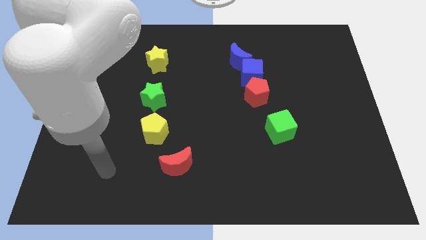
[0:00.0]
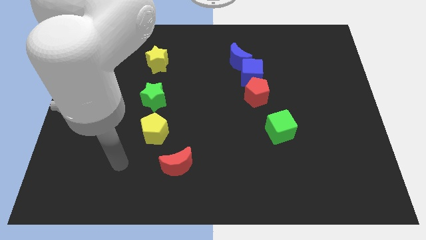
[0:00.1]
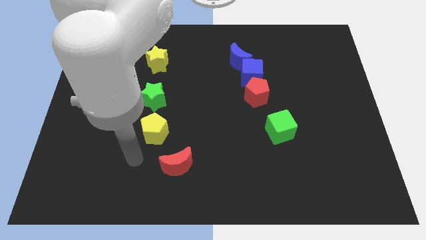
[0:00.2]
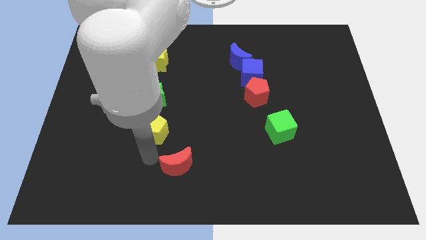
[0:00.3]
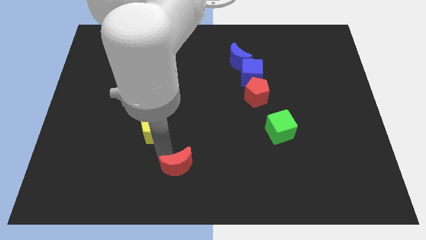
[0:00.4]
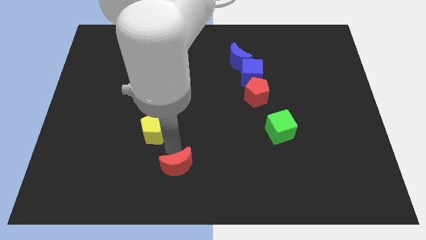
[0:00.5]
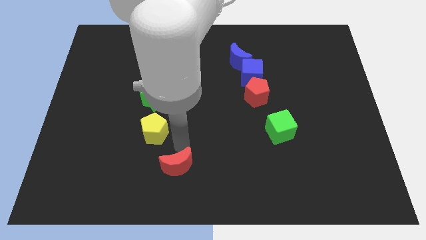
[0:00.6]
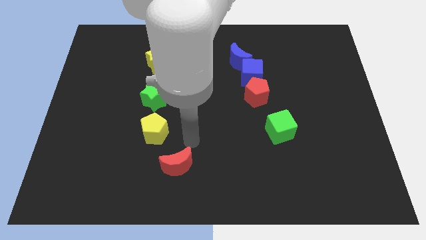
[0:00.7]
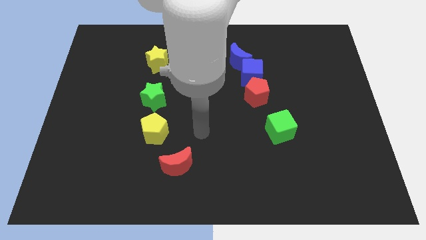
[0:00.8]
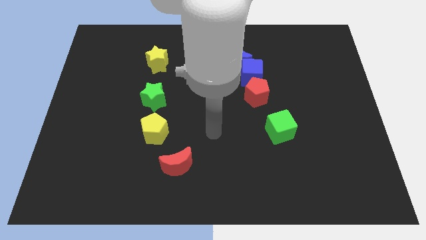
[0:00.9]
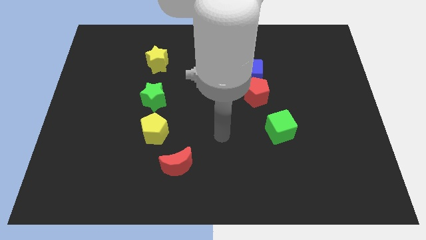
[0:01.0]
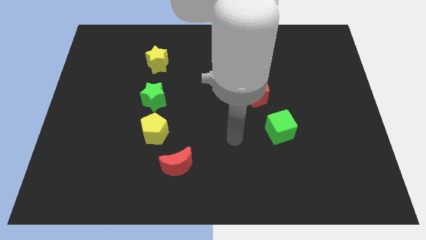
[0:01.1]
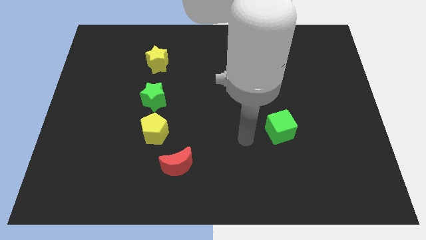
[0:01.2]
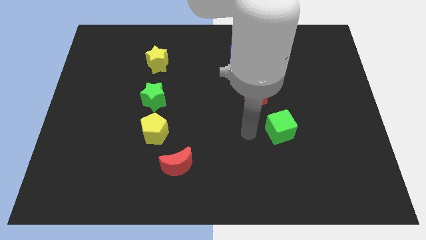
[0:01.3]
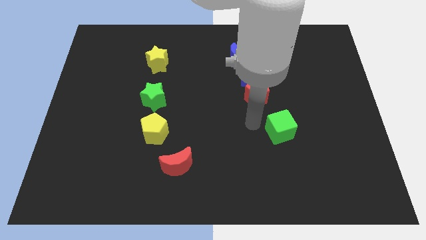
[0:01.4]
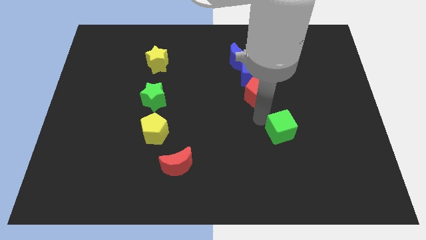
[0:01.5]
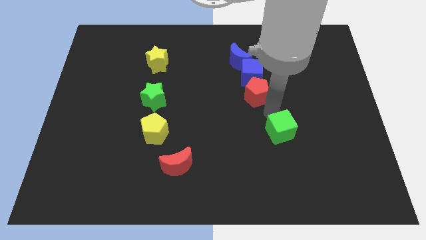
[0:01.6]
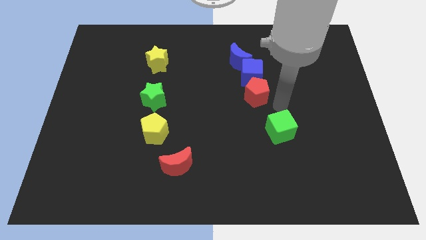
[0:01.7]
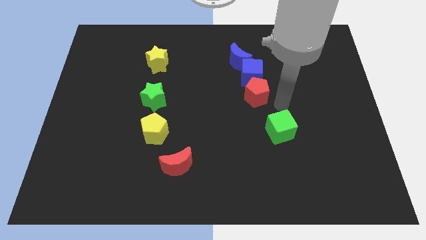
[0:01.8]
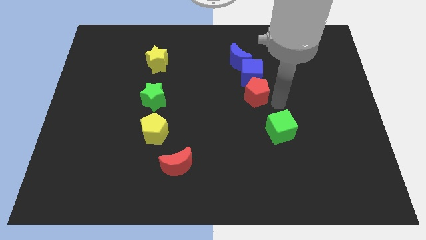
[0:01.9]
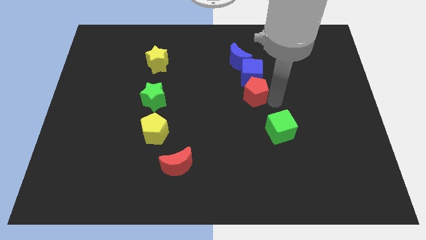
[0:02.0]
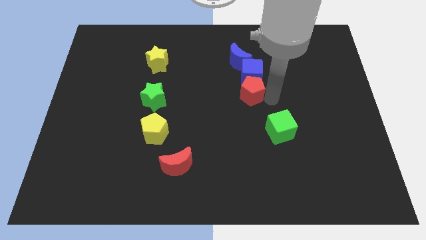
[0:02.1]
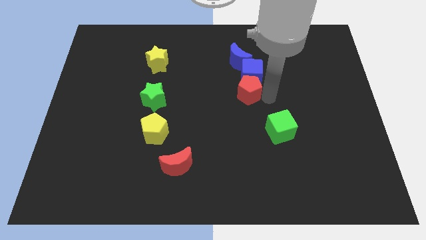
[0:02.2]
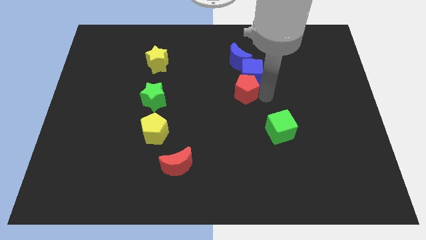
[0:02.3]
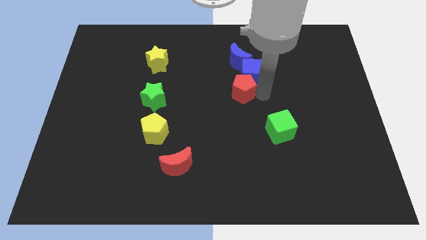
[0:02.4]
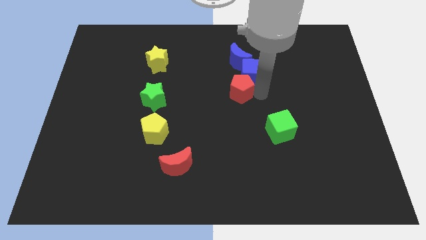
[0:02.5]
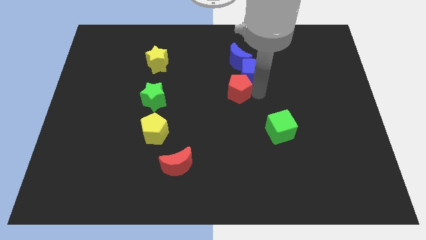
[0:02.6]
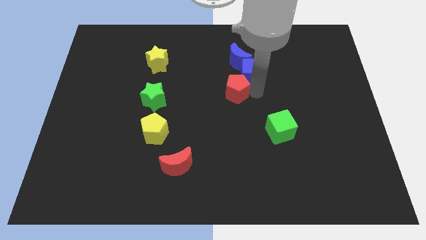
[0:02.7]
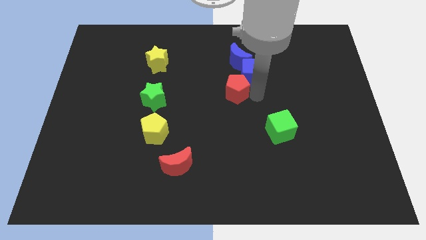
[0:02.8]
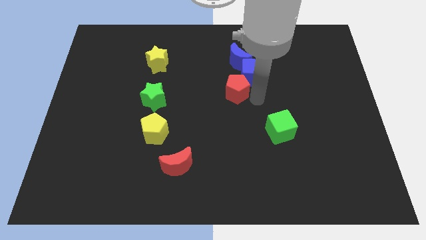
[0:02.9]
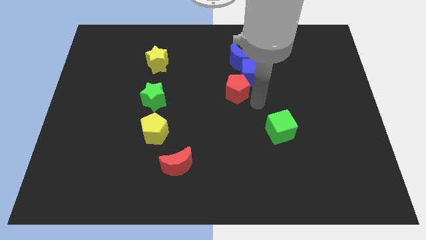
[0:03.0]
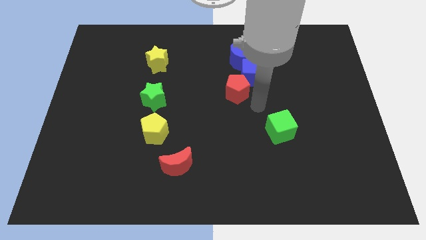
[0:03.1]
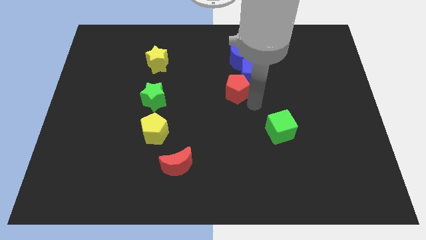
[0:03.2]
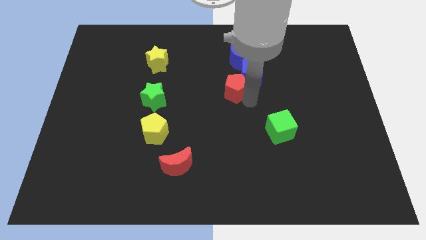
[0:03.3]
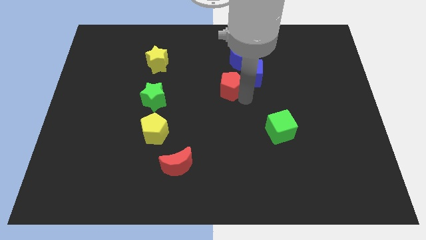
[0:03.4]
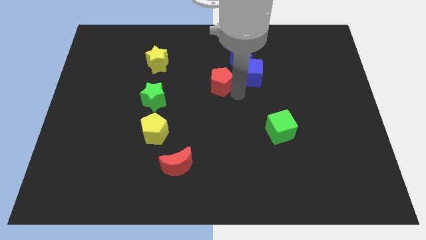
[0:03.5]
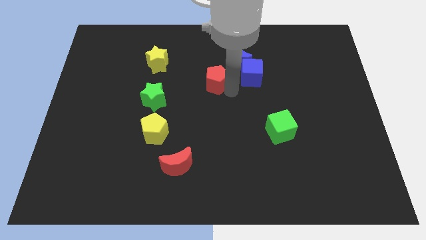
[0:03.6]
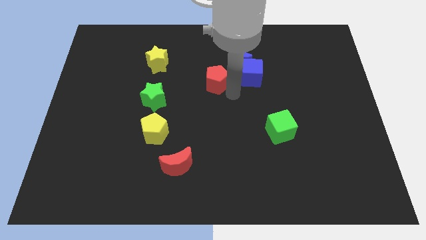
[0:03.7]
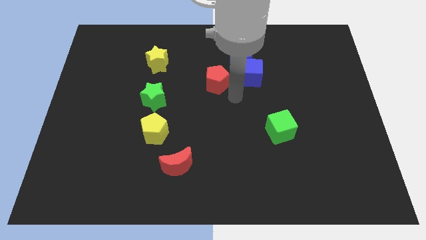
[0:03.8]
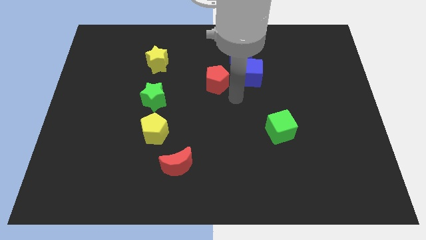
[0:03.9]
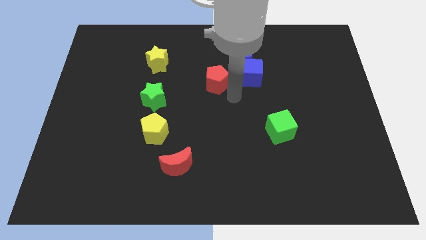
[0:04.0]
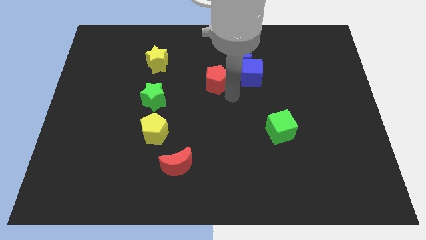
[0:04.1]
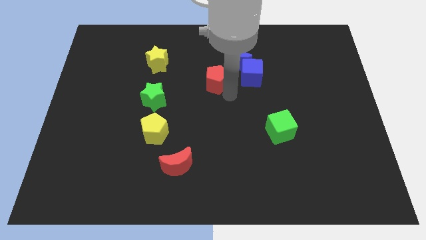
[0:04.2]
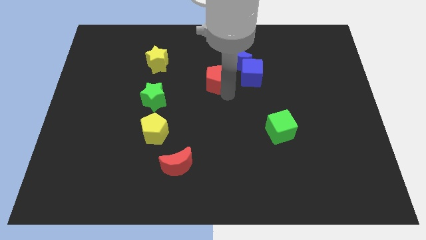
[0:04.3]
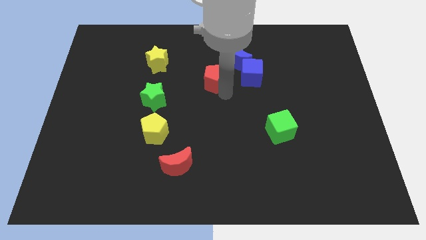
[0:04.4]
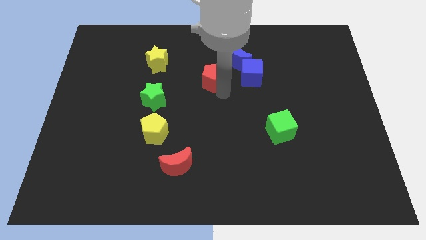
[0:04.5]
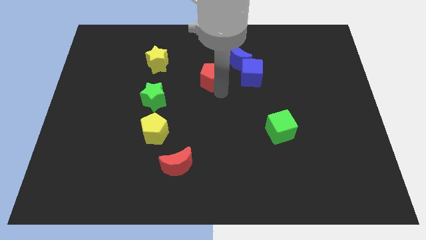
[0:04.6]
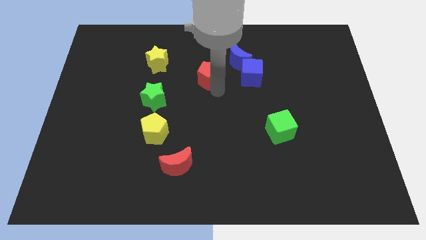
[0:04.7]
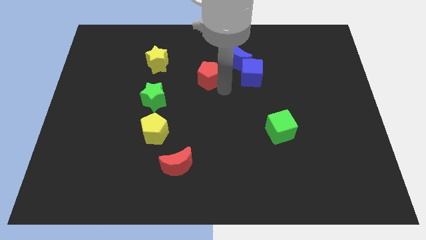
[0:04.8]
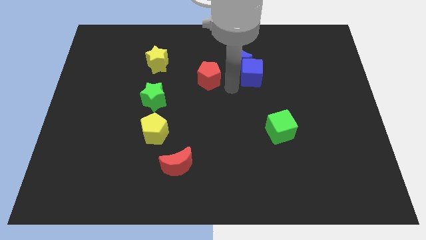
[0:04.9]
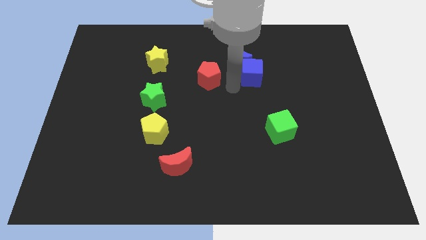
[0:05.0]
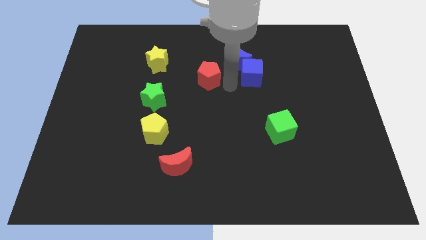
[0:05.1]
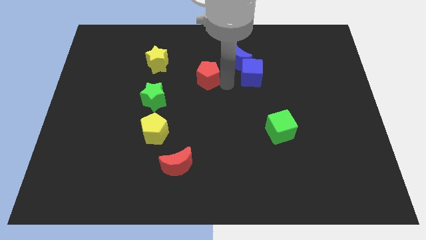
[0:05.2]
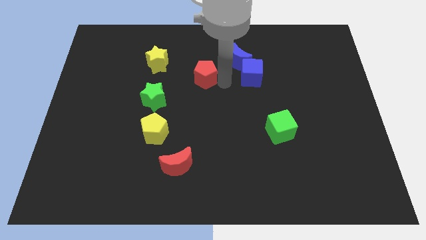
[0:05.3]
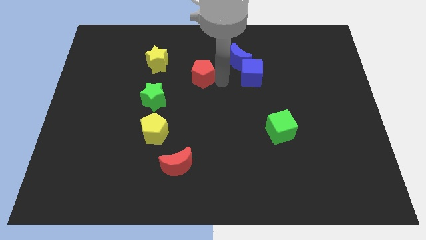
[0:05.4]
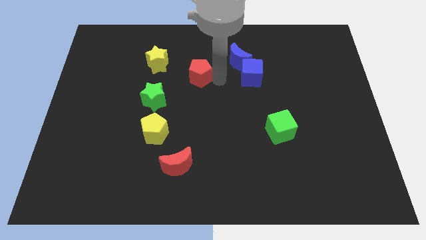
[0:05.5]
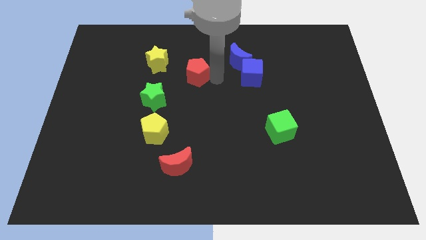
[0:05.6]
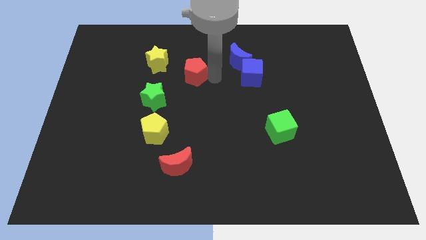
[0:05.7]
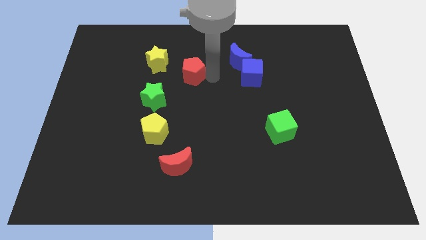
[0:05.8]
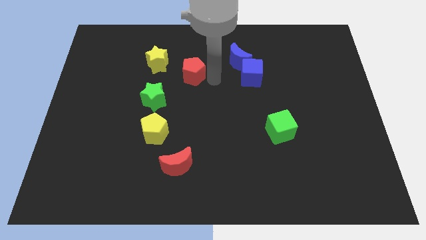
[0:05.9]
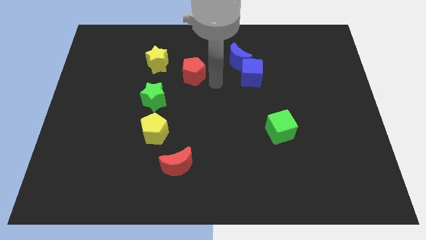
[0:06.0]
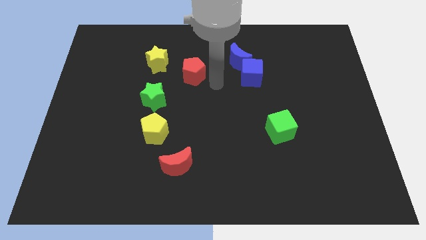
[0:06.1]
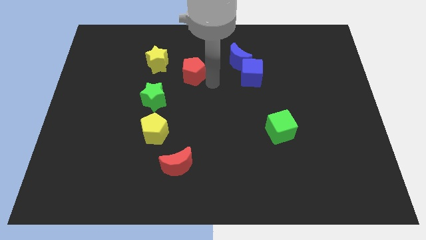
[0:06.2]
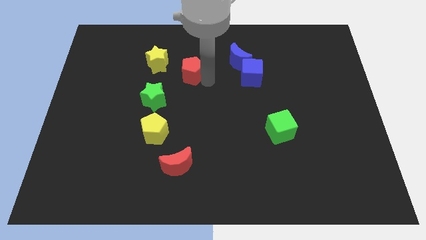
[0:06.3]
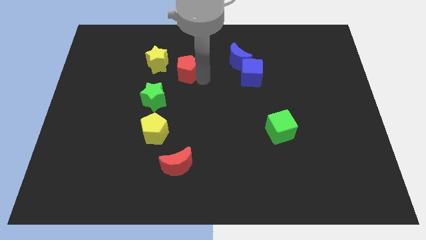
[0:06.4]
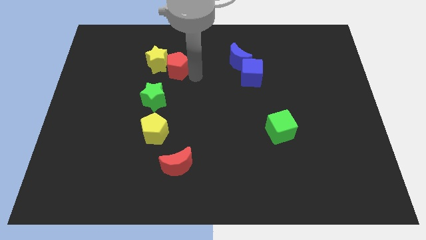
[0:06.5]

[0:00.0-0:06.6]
move the red pentagon towards the yellow star

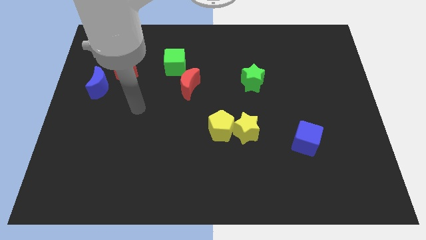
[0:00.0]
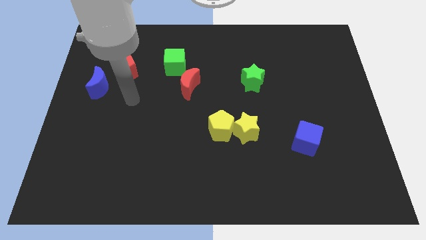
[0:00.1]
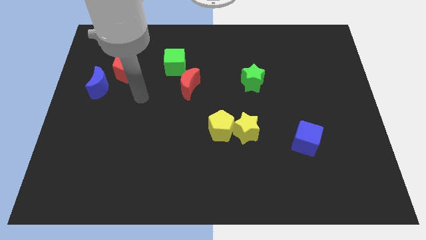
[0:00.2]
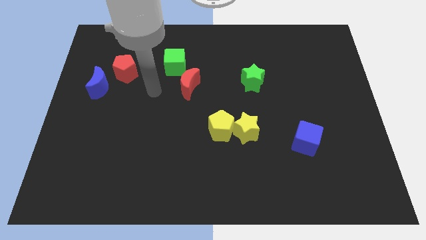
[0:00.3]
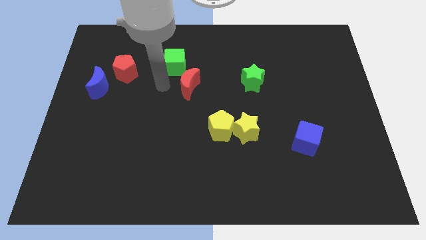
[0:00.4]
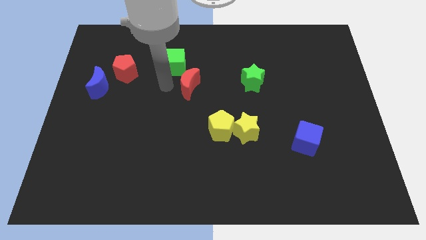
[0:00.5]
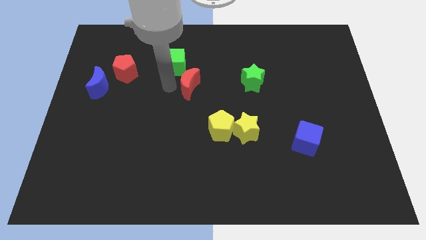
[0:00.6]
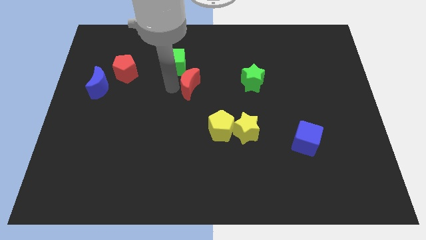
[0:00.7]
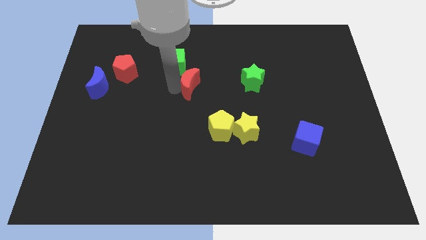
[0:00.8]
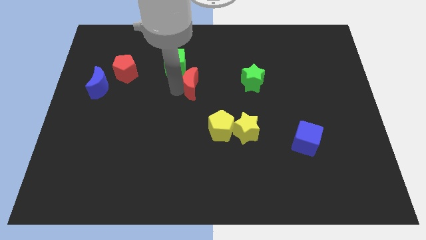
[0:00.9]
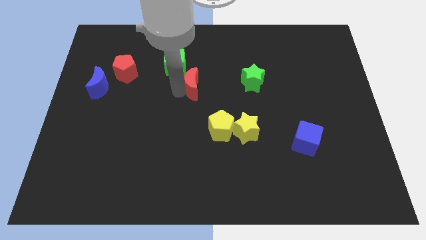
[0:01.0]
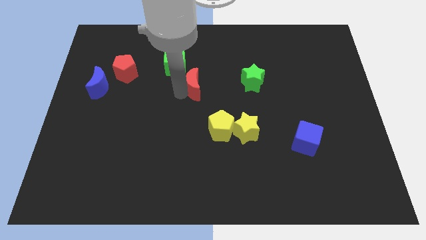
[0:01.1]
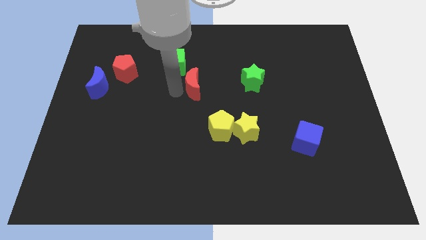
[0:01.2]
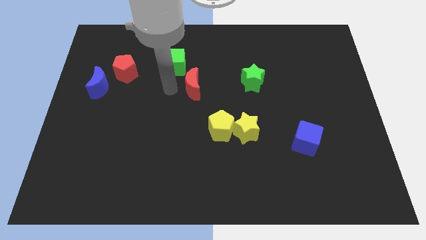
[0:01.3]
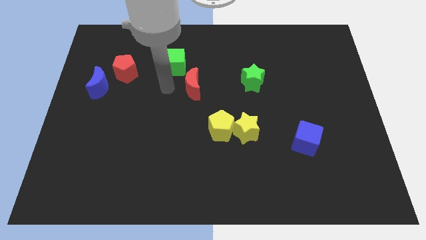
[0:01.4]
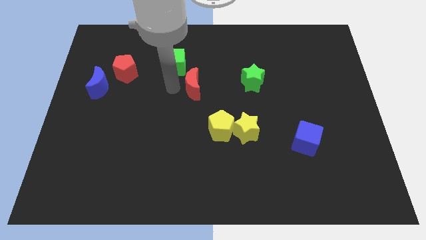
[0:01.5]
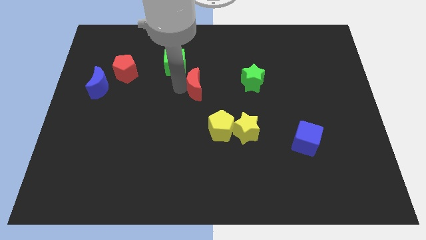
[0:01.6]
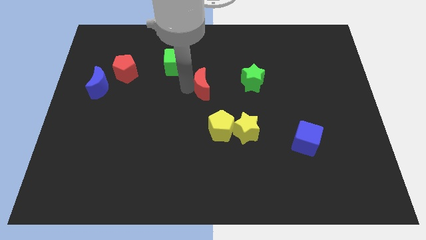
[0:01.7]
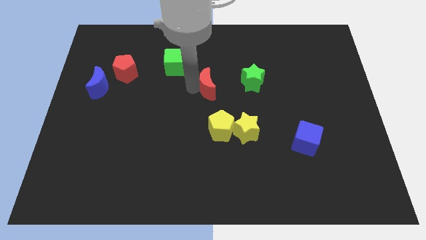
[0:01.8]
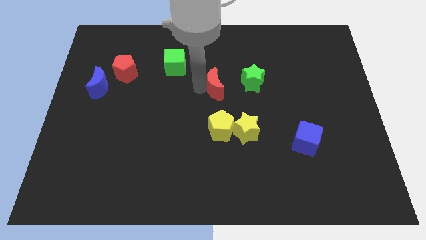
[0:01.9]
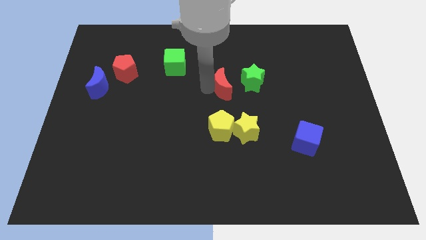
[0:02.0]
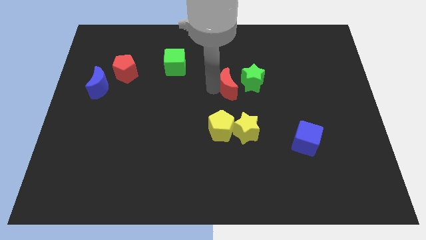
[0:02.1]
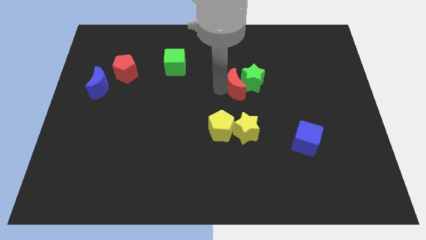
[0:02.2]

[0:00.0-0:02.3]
put the red moon to the green star
